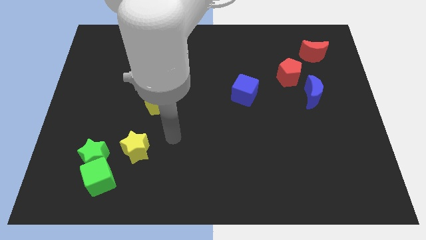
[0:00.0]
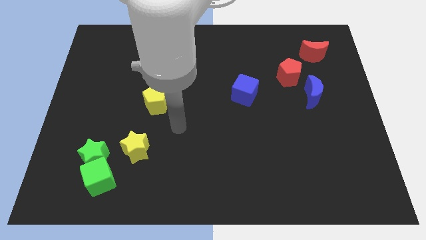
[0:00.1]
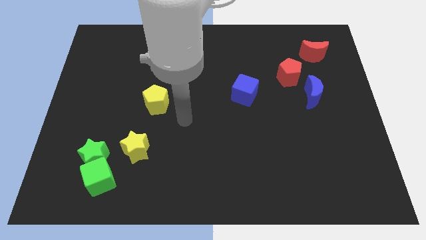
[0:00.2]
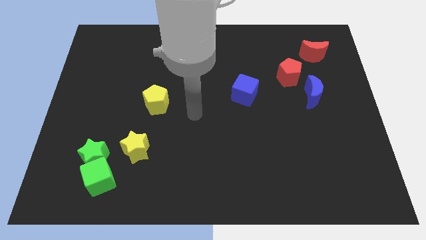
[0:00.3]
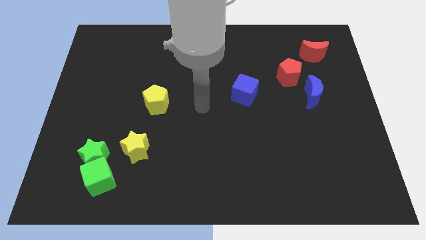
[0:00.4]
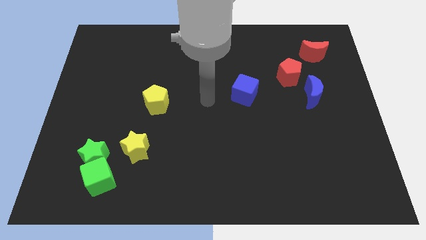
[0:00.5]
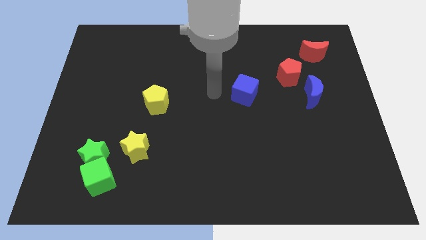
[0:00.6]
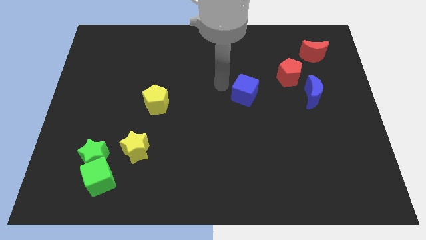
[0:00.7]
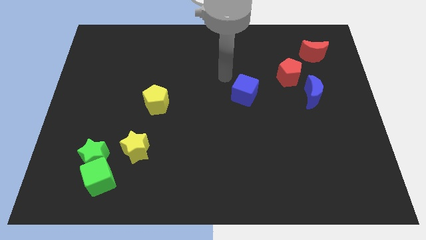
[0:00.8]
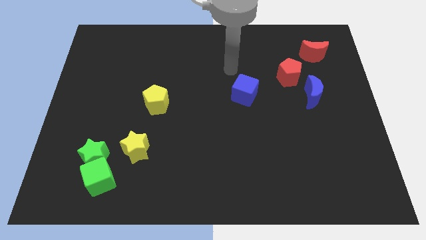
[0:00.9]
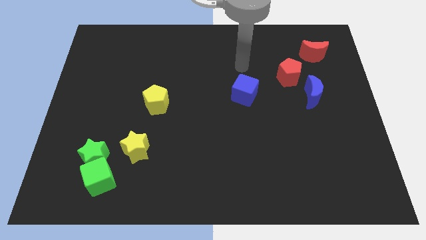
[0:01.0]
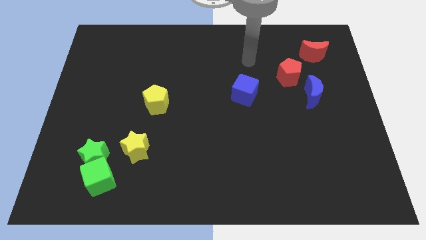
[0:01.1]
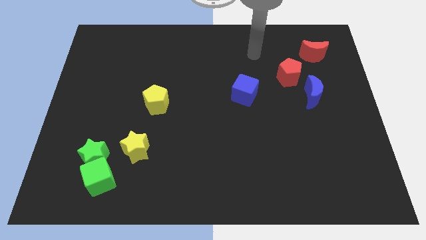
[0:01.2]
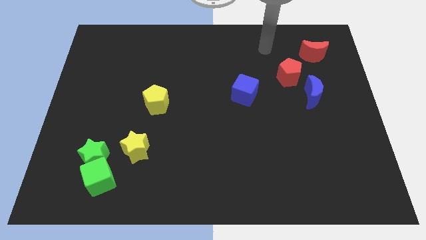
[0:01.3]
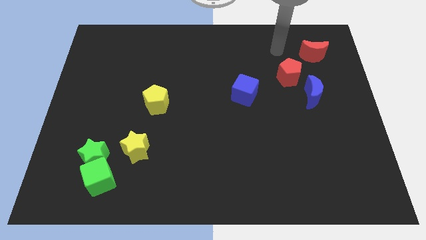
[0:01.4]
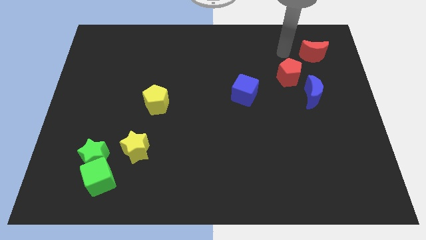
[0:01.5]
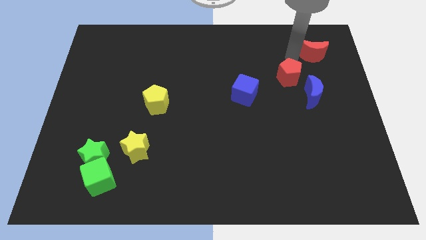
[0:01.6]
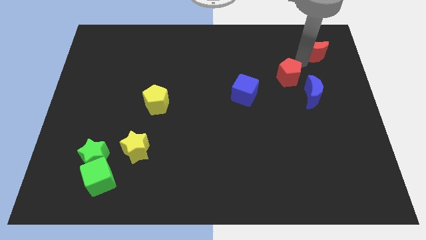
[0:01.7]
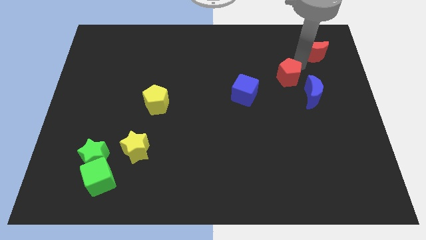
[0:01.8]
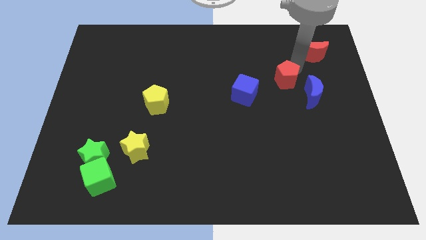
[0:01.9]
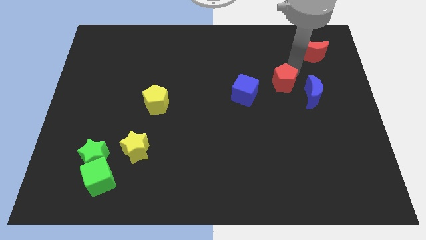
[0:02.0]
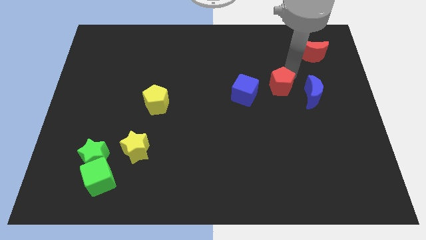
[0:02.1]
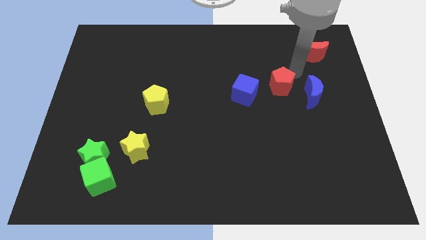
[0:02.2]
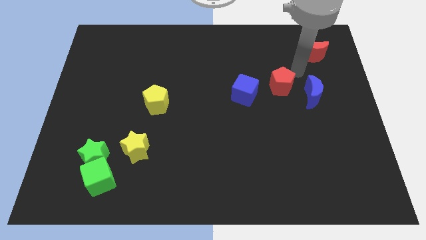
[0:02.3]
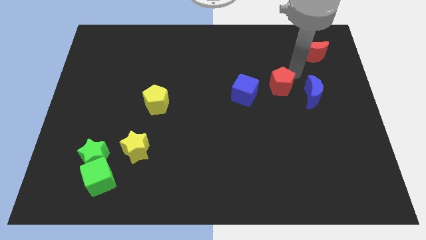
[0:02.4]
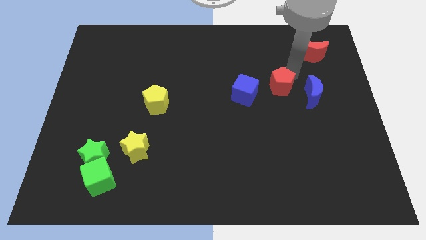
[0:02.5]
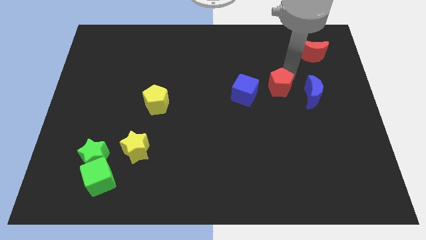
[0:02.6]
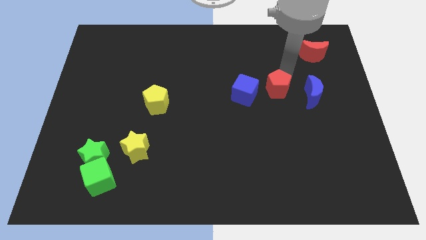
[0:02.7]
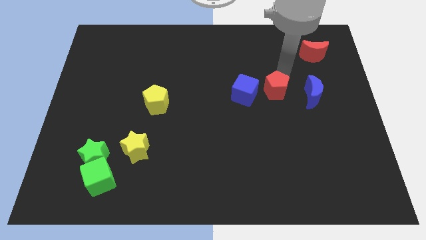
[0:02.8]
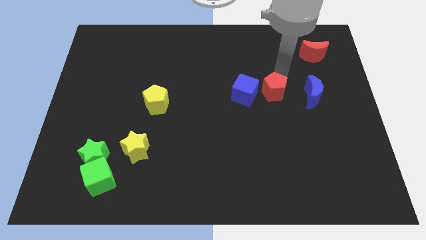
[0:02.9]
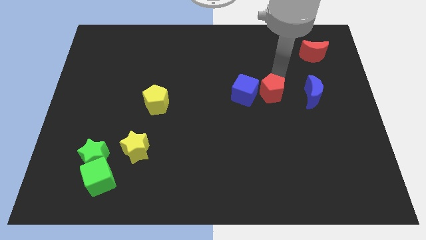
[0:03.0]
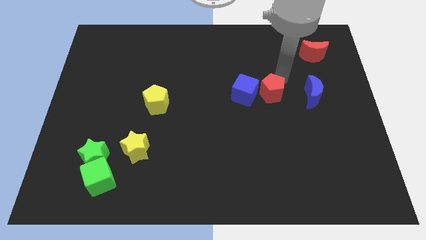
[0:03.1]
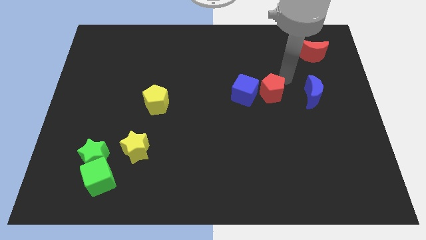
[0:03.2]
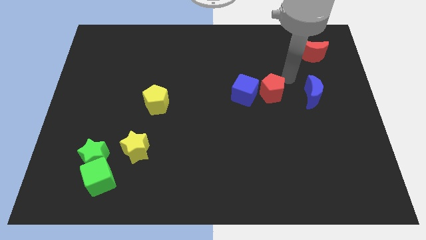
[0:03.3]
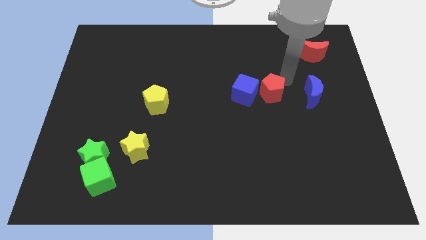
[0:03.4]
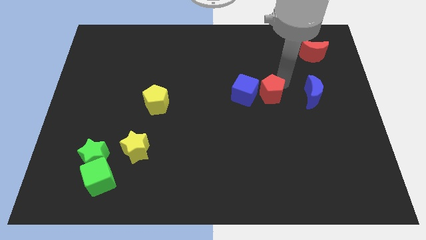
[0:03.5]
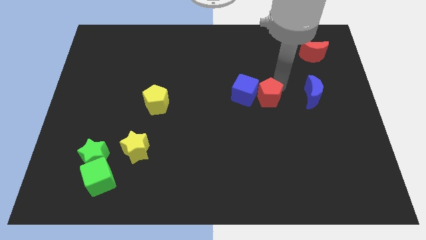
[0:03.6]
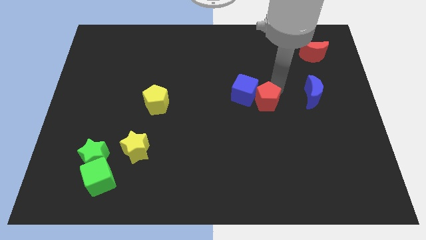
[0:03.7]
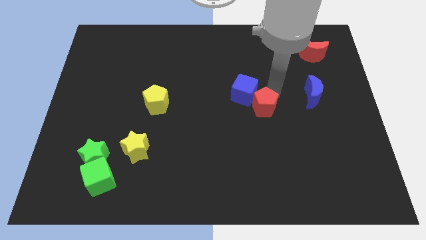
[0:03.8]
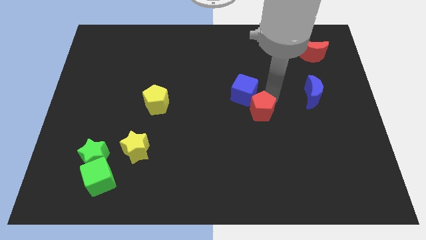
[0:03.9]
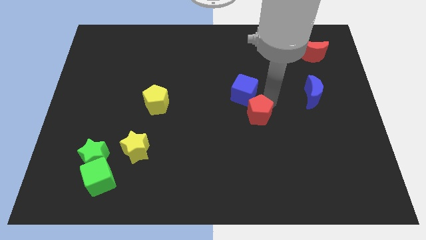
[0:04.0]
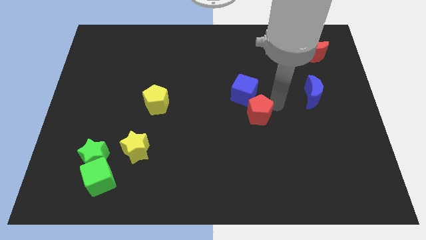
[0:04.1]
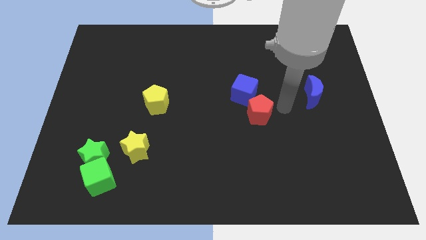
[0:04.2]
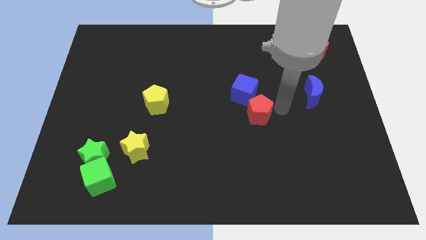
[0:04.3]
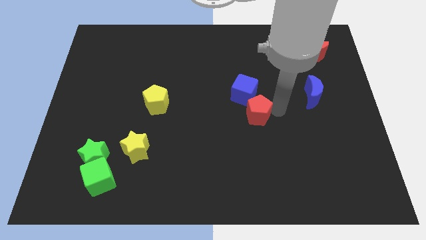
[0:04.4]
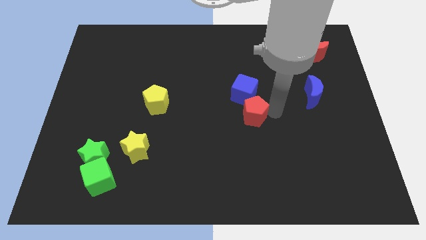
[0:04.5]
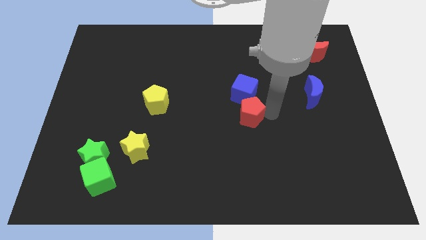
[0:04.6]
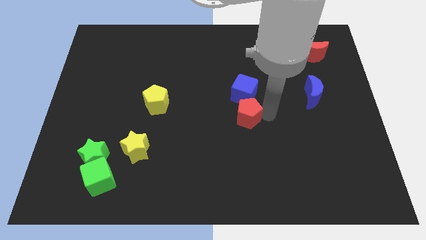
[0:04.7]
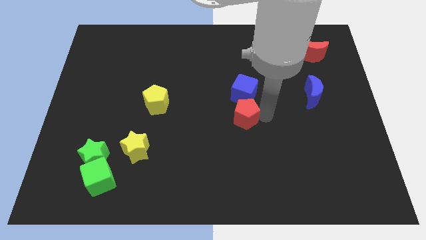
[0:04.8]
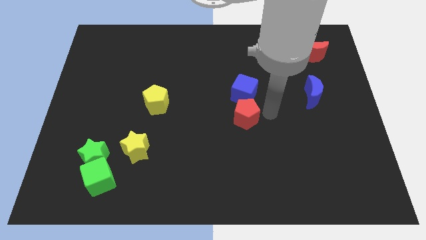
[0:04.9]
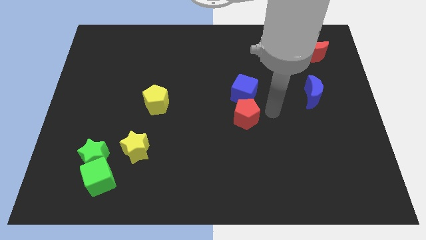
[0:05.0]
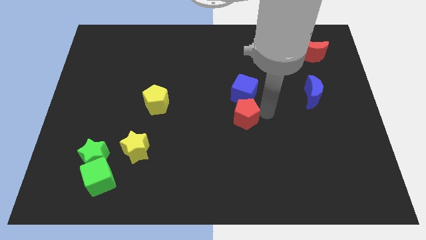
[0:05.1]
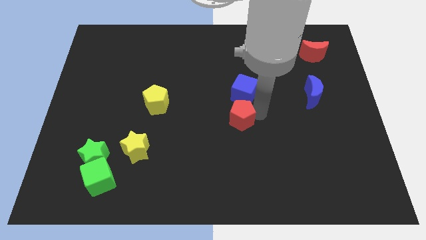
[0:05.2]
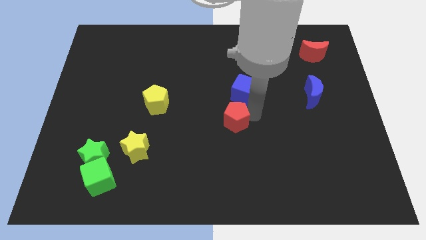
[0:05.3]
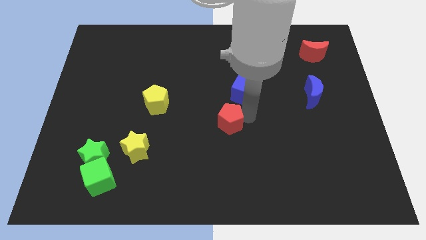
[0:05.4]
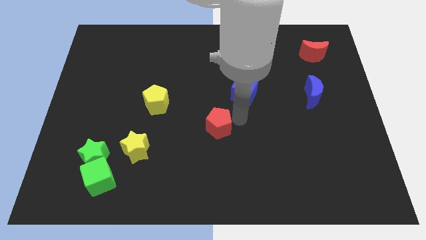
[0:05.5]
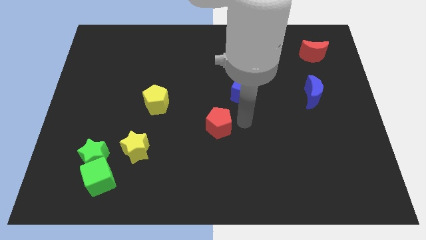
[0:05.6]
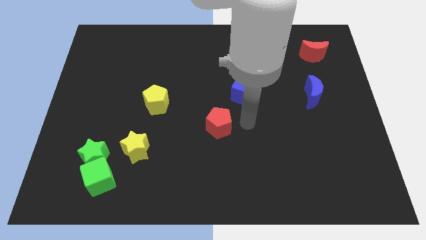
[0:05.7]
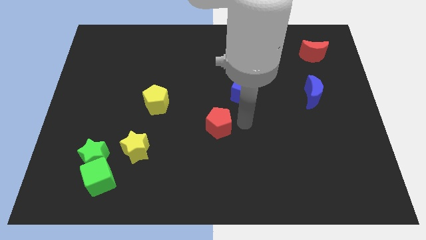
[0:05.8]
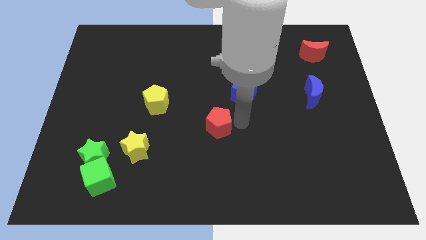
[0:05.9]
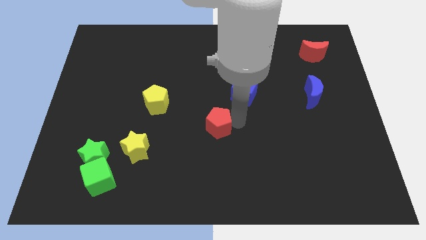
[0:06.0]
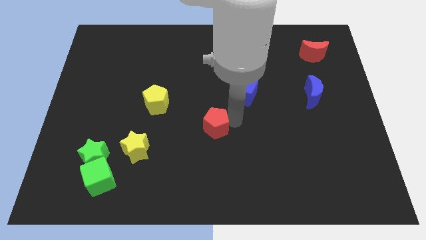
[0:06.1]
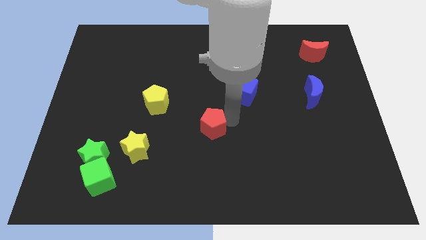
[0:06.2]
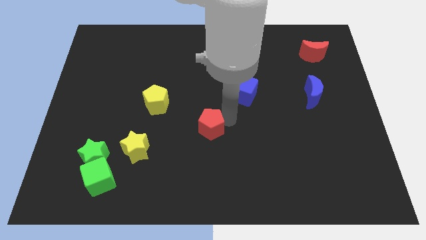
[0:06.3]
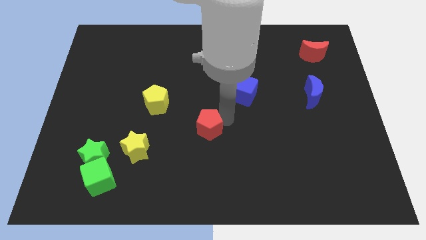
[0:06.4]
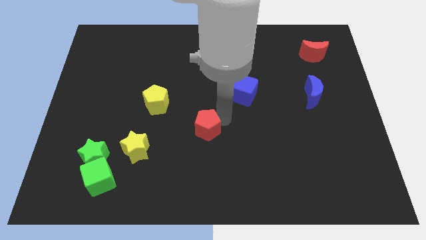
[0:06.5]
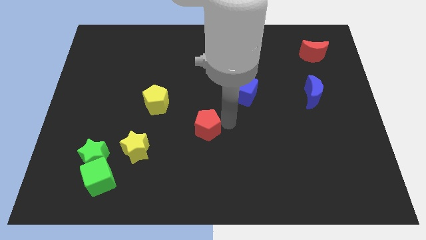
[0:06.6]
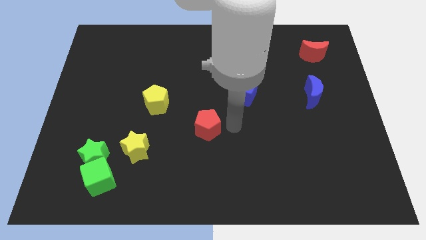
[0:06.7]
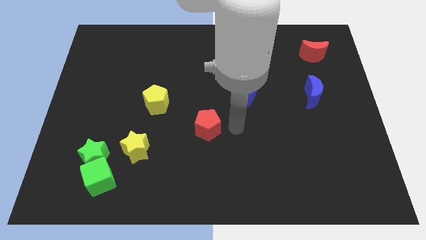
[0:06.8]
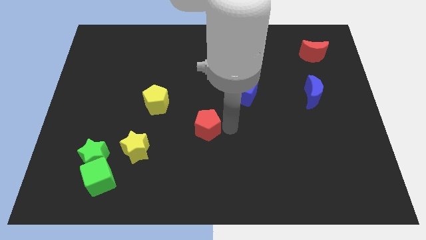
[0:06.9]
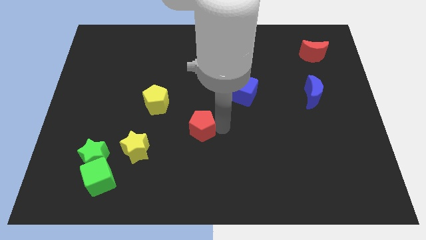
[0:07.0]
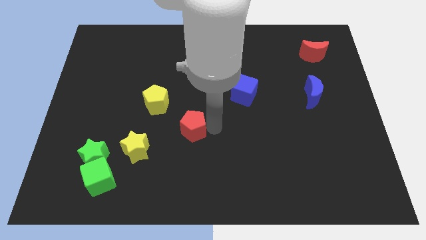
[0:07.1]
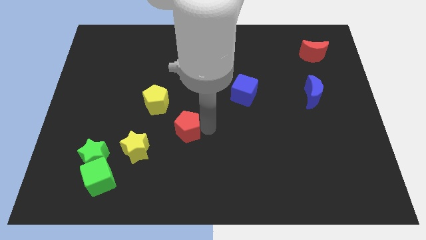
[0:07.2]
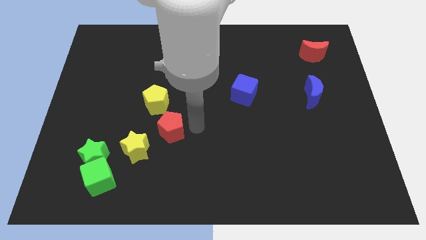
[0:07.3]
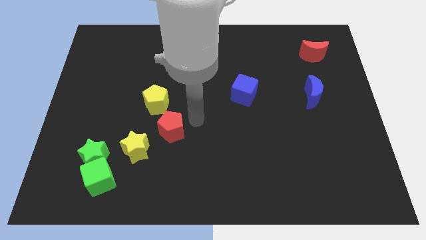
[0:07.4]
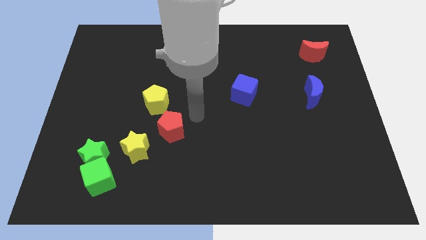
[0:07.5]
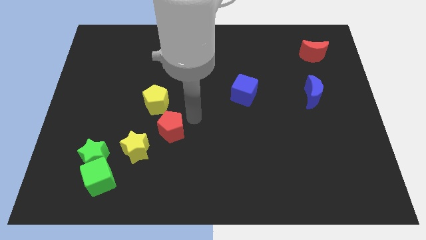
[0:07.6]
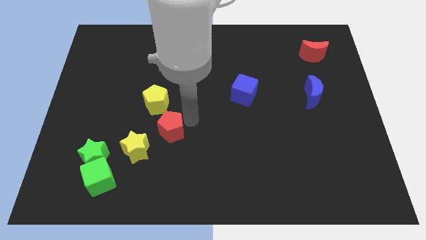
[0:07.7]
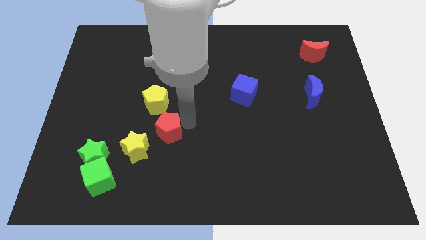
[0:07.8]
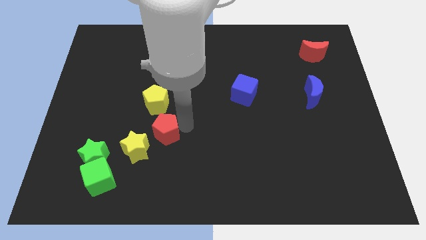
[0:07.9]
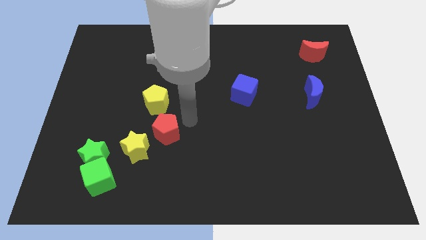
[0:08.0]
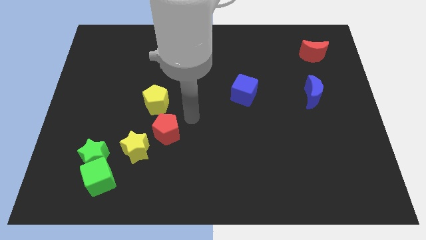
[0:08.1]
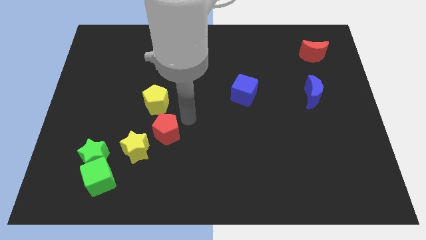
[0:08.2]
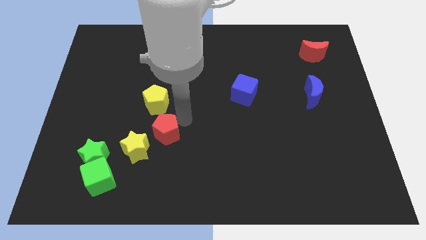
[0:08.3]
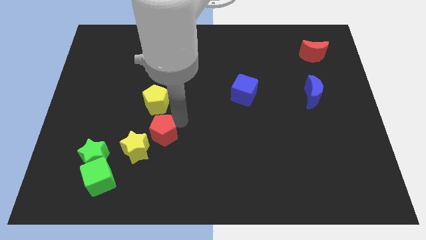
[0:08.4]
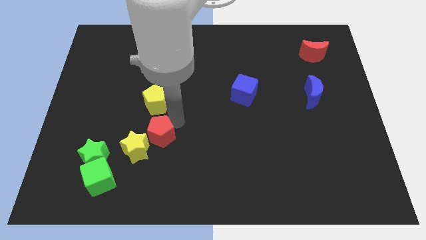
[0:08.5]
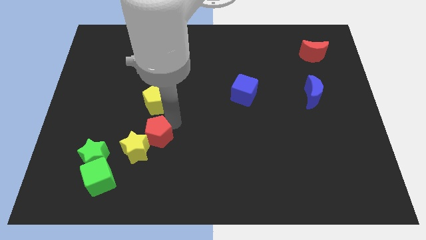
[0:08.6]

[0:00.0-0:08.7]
push the red pentagon close to the yellow star
